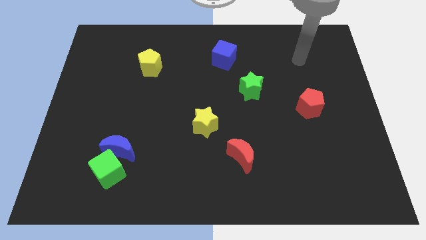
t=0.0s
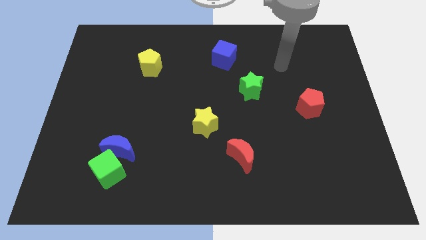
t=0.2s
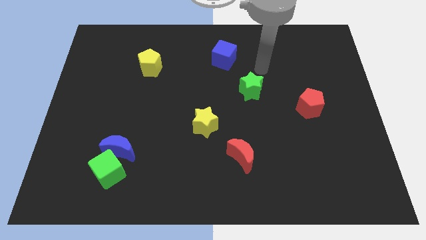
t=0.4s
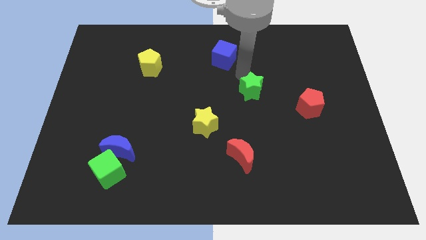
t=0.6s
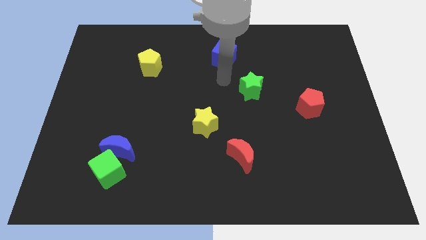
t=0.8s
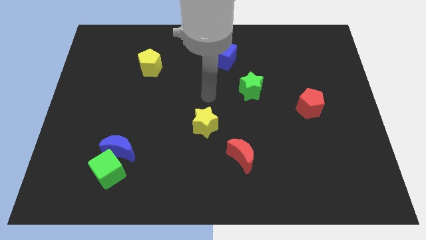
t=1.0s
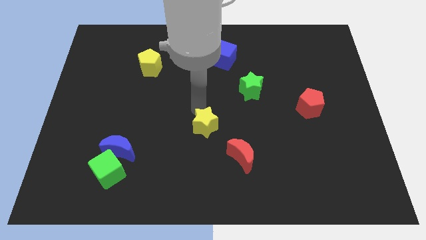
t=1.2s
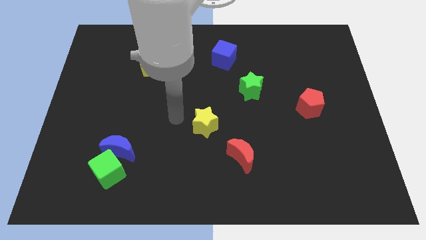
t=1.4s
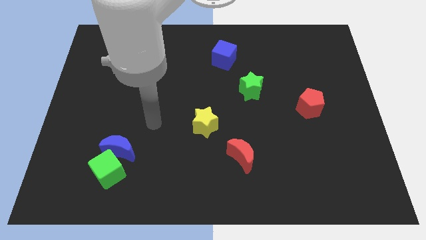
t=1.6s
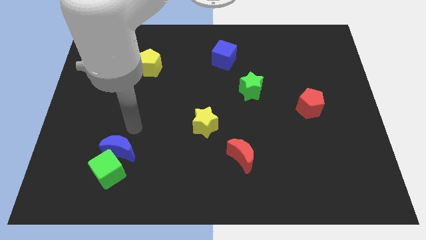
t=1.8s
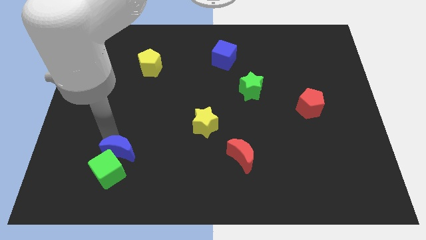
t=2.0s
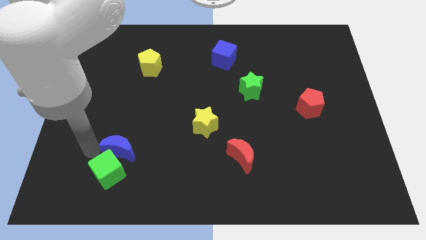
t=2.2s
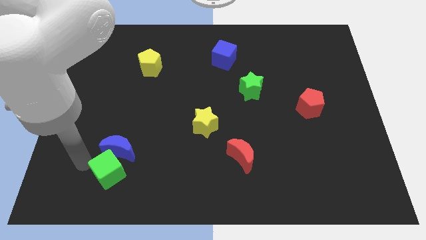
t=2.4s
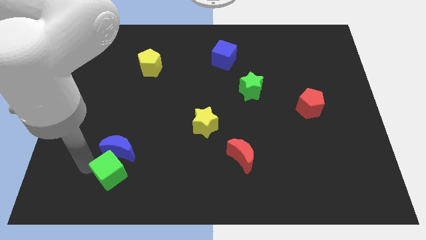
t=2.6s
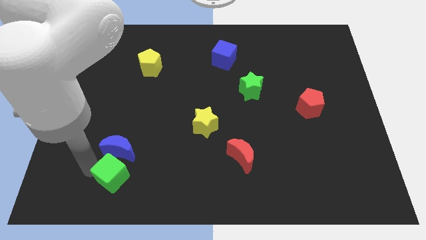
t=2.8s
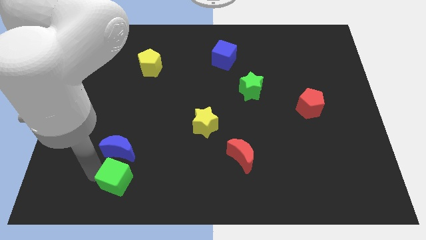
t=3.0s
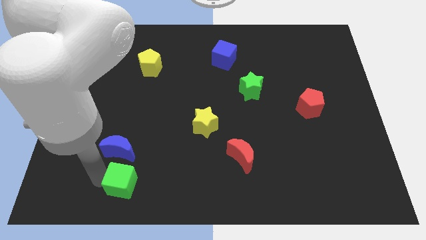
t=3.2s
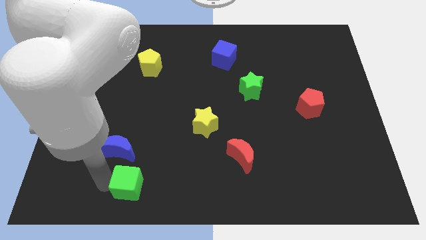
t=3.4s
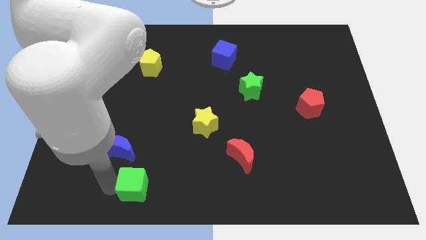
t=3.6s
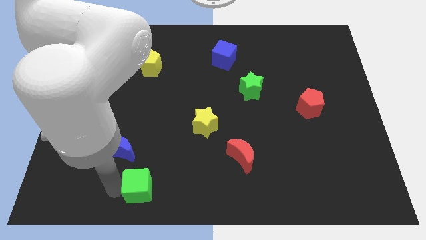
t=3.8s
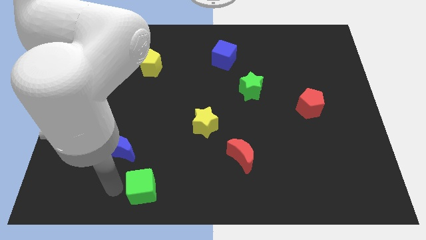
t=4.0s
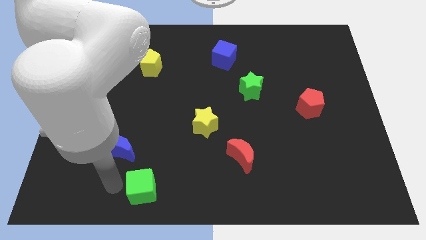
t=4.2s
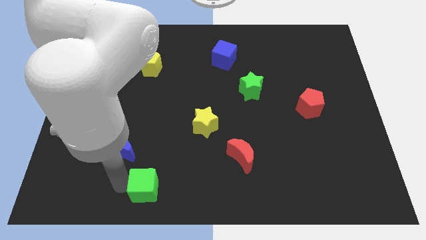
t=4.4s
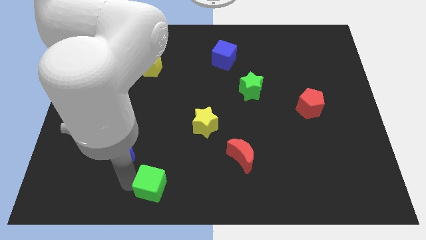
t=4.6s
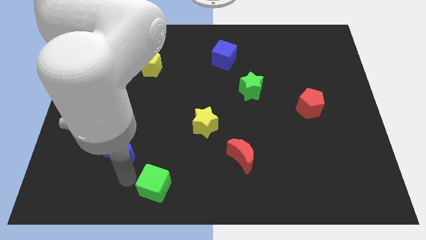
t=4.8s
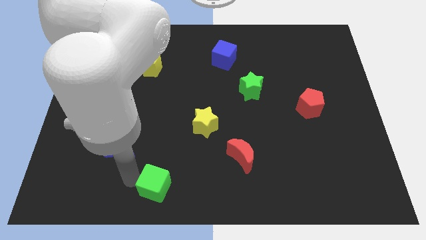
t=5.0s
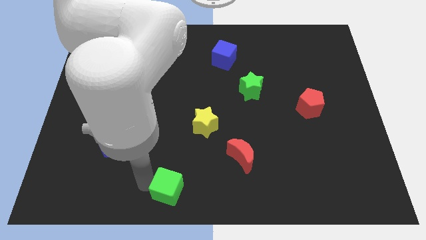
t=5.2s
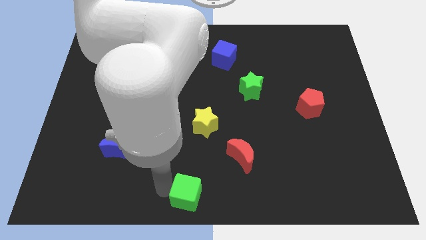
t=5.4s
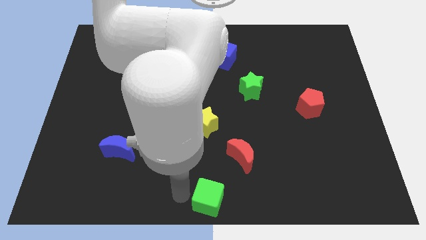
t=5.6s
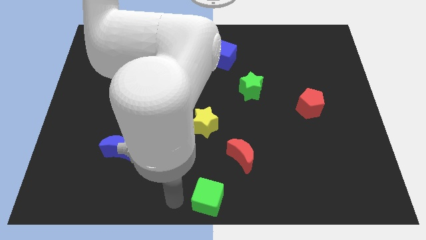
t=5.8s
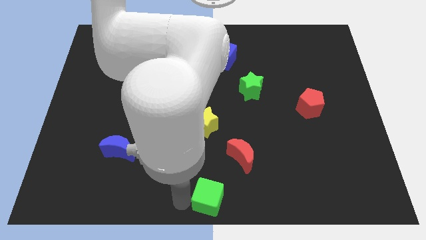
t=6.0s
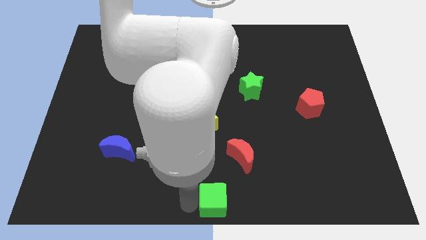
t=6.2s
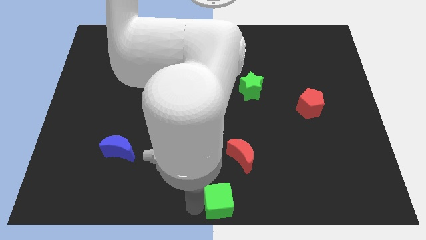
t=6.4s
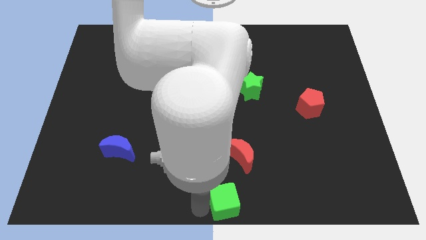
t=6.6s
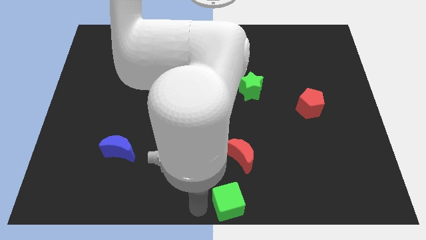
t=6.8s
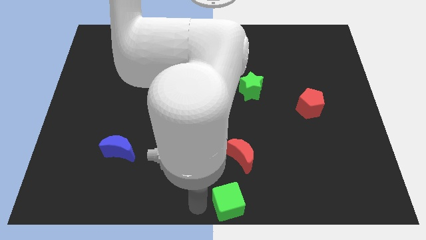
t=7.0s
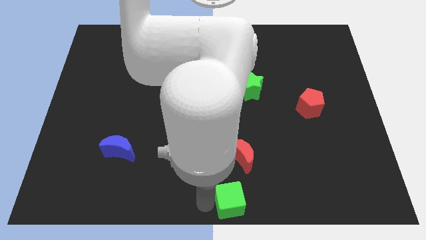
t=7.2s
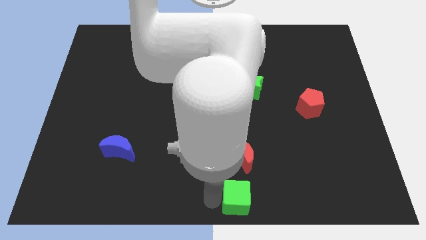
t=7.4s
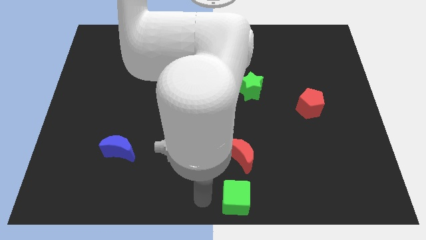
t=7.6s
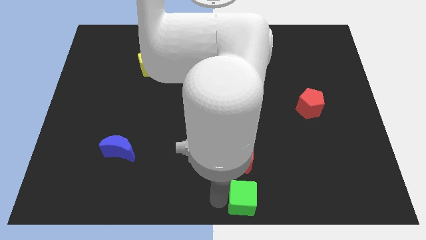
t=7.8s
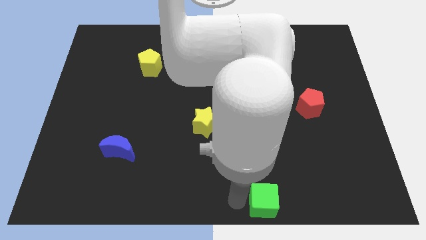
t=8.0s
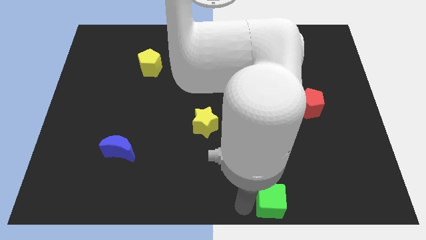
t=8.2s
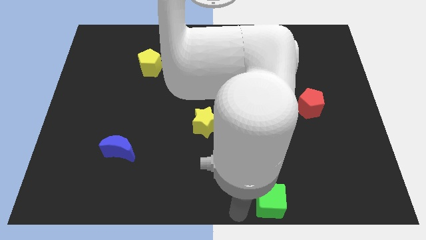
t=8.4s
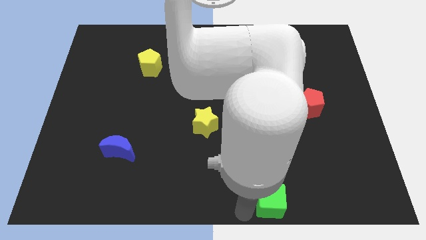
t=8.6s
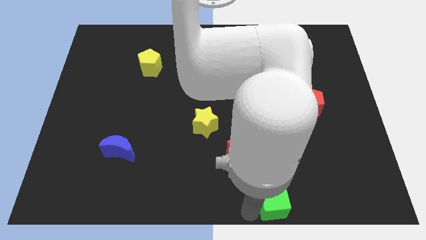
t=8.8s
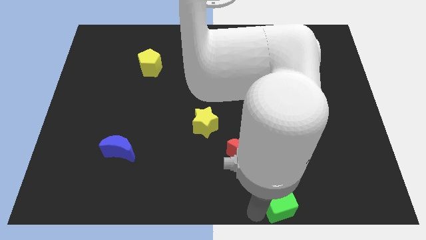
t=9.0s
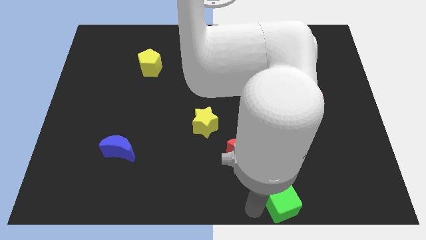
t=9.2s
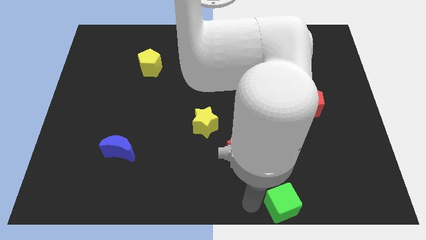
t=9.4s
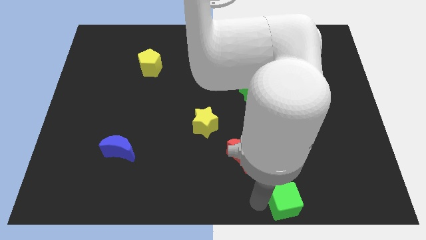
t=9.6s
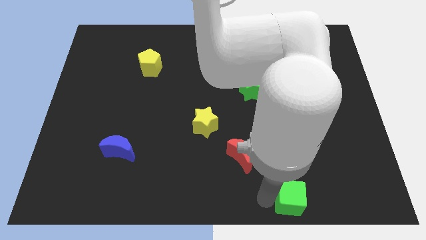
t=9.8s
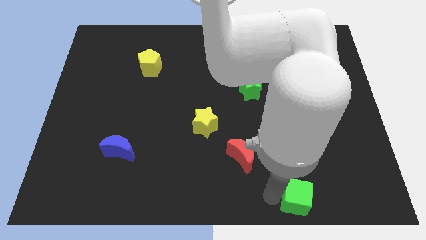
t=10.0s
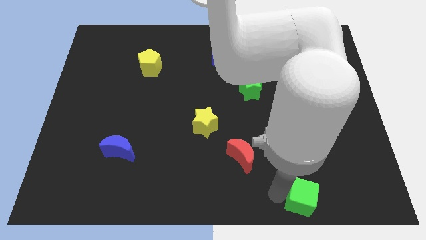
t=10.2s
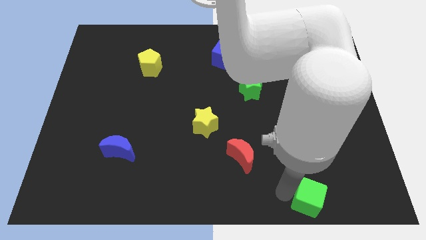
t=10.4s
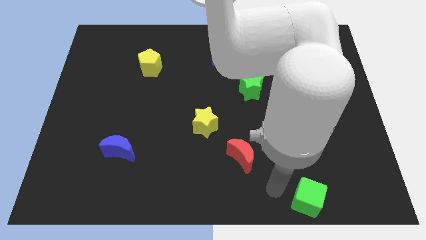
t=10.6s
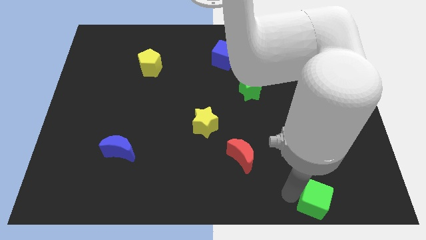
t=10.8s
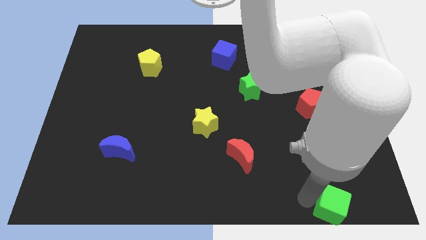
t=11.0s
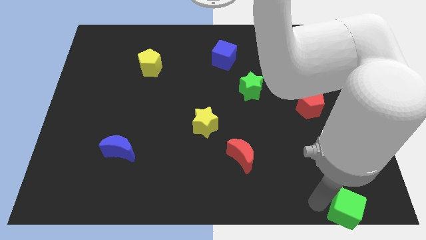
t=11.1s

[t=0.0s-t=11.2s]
slide the green cube to the lower right corner
